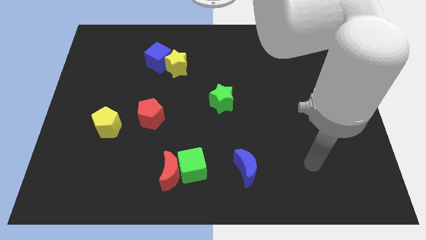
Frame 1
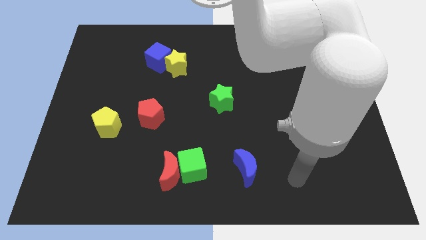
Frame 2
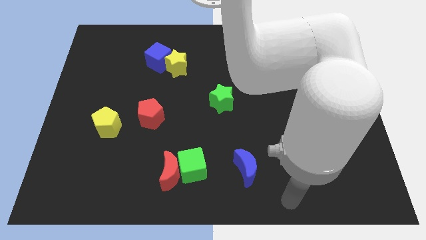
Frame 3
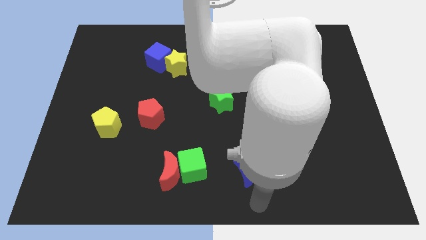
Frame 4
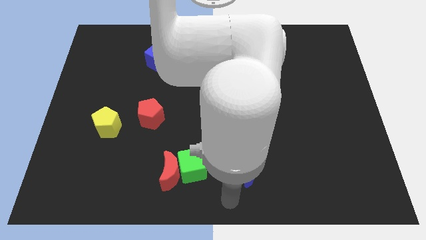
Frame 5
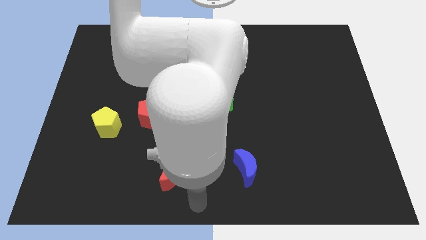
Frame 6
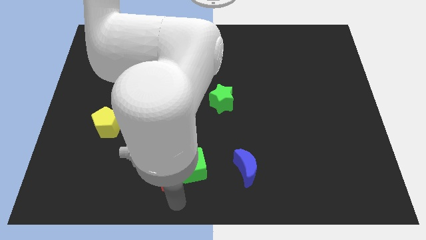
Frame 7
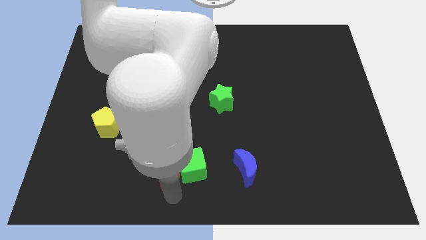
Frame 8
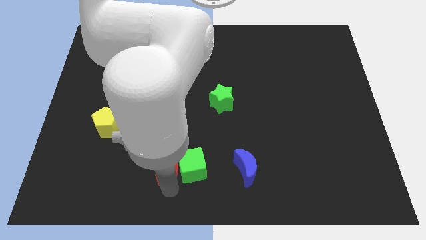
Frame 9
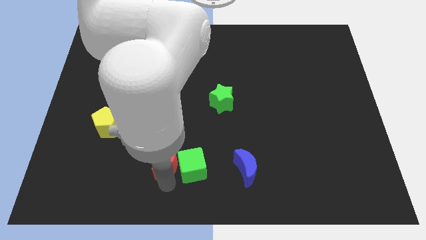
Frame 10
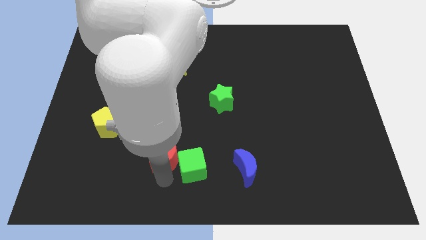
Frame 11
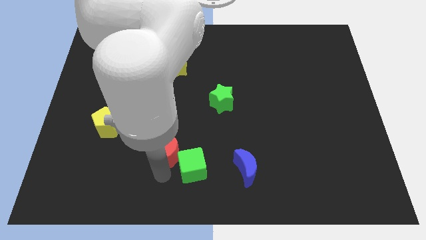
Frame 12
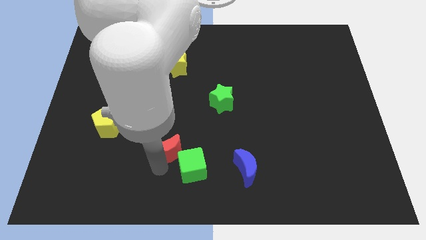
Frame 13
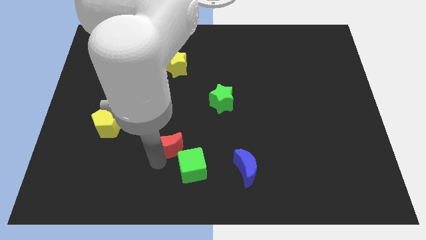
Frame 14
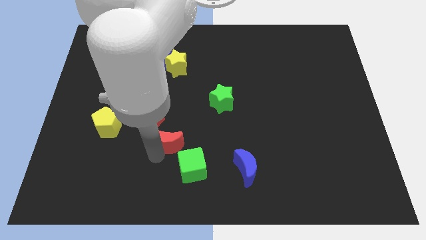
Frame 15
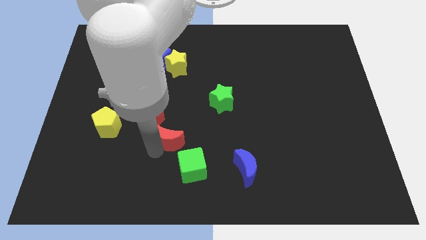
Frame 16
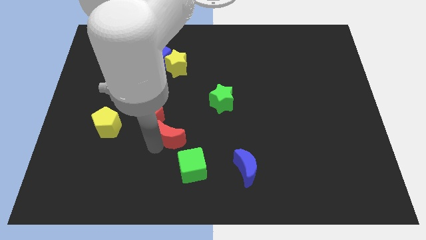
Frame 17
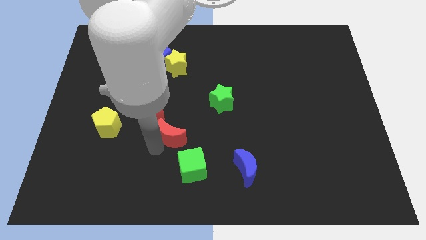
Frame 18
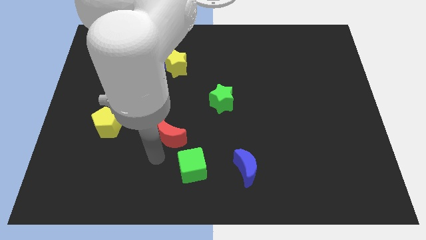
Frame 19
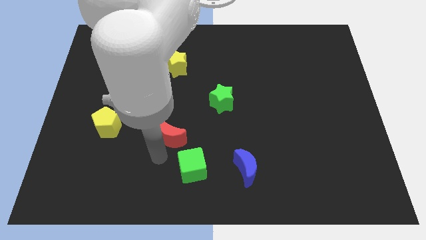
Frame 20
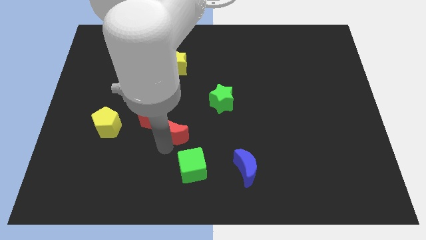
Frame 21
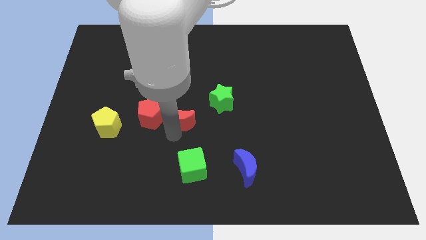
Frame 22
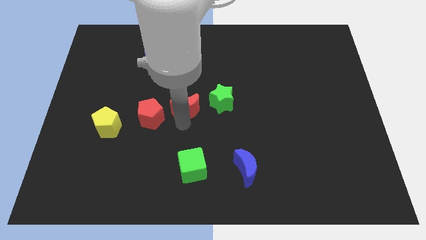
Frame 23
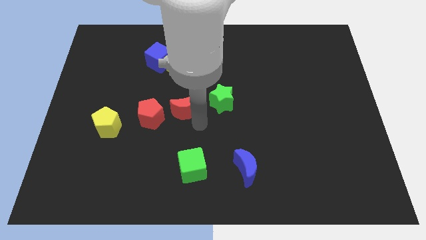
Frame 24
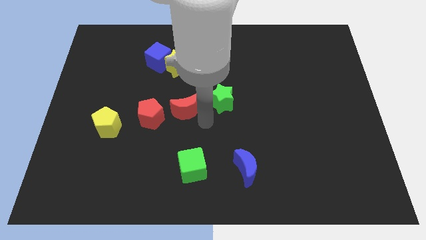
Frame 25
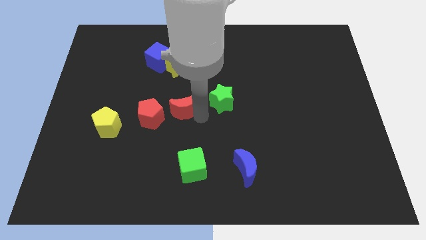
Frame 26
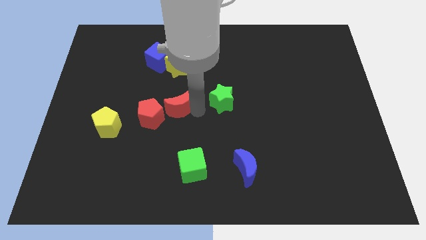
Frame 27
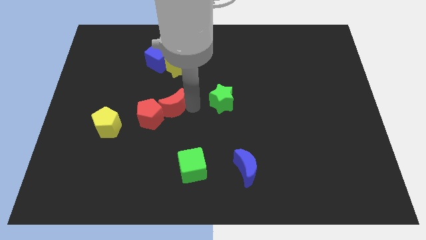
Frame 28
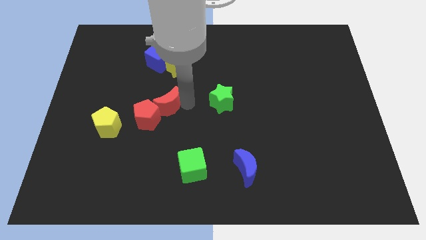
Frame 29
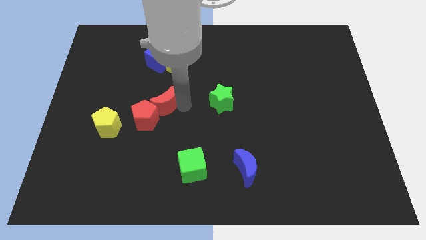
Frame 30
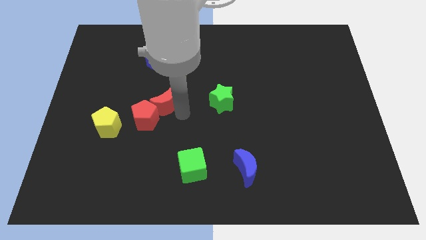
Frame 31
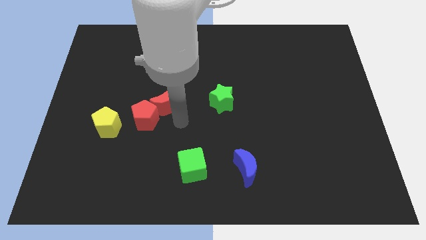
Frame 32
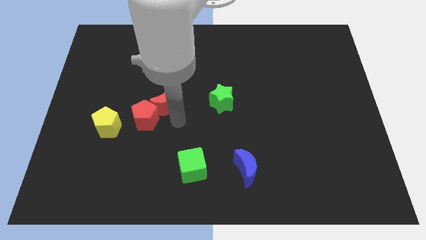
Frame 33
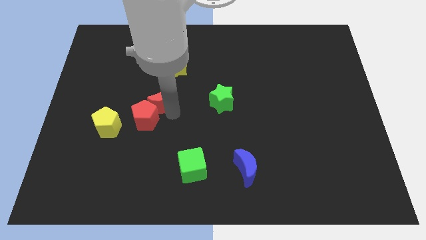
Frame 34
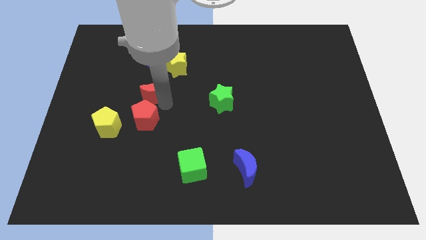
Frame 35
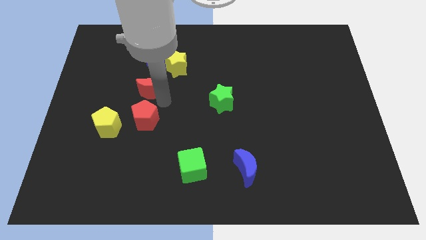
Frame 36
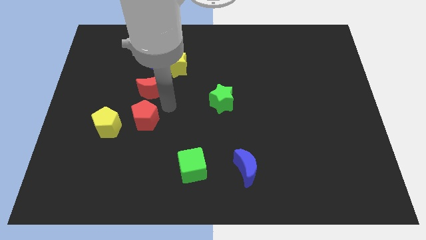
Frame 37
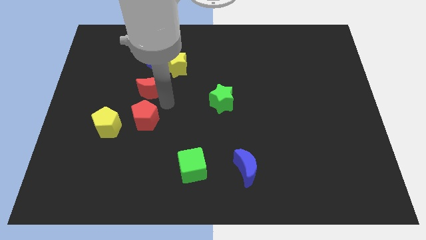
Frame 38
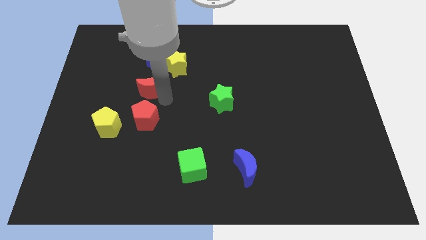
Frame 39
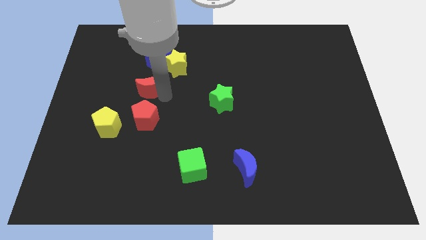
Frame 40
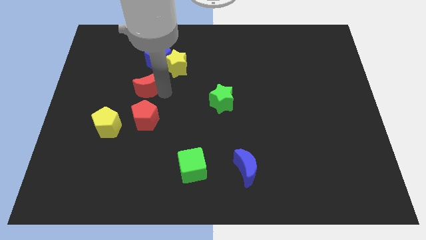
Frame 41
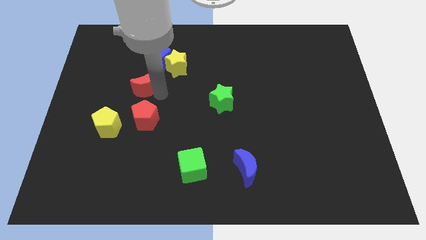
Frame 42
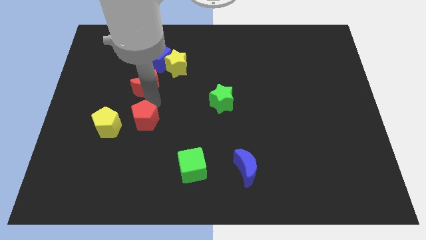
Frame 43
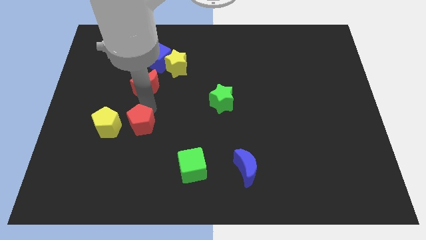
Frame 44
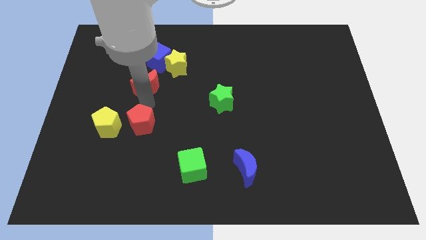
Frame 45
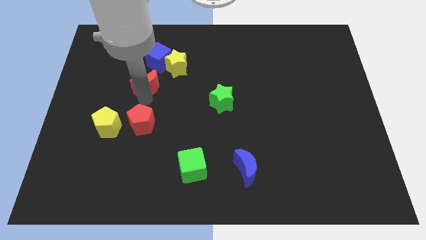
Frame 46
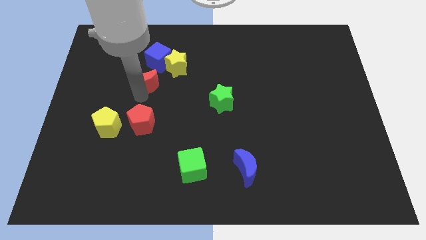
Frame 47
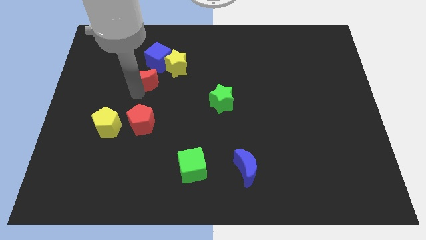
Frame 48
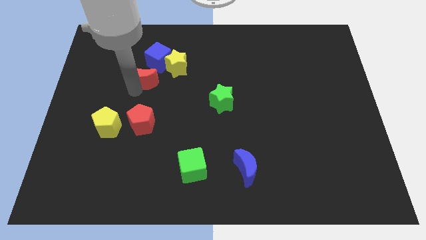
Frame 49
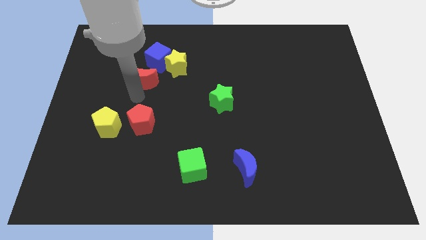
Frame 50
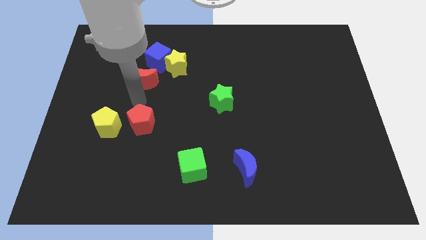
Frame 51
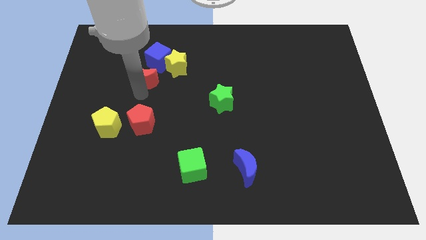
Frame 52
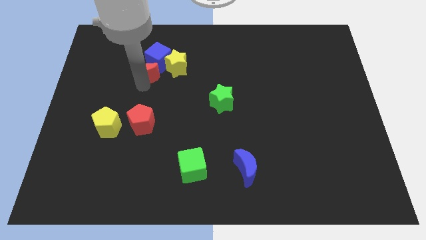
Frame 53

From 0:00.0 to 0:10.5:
move the red moon towards the blue cube
